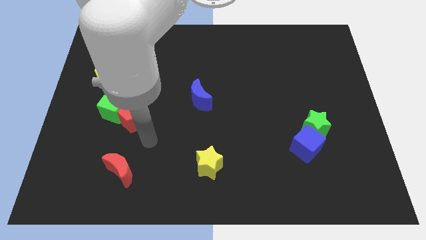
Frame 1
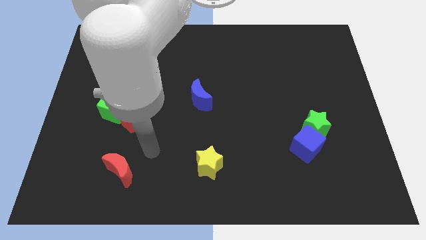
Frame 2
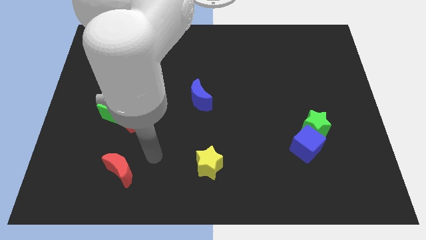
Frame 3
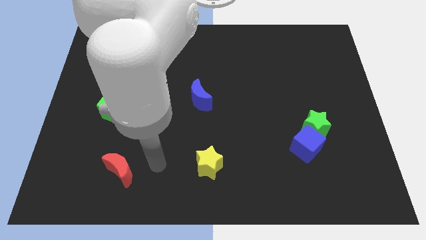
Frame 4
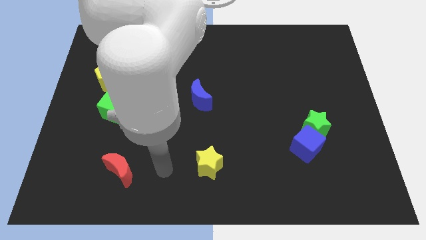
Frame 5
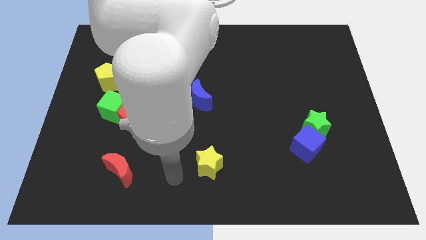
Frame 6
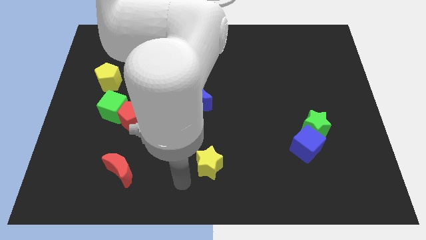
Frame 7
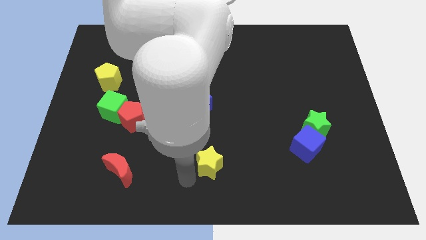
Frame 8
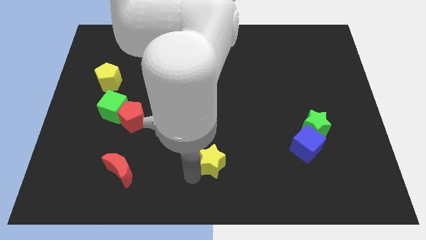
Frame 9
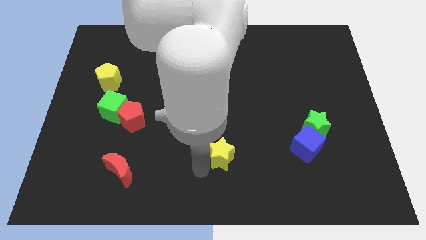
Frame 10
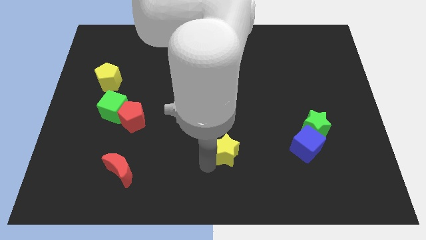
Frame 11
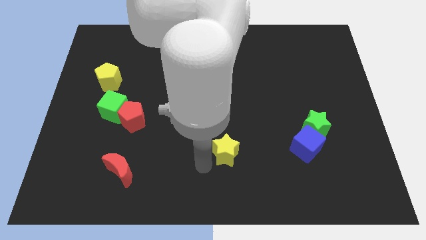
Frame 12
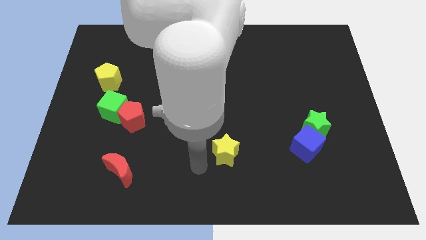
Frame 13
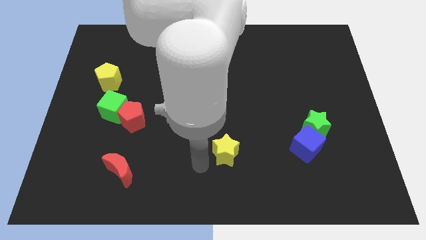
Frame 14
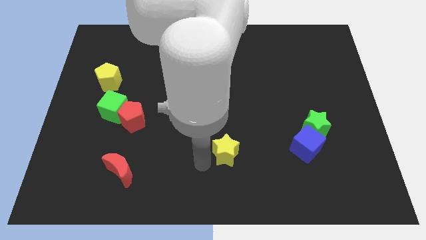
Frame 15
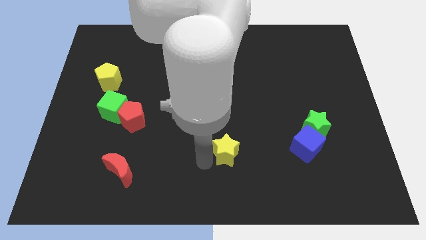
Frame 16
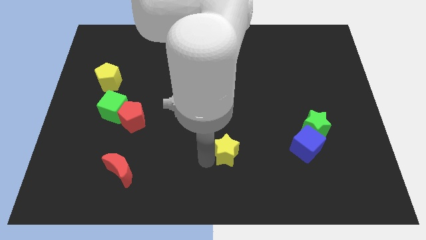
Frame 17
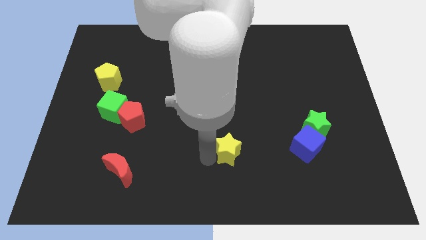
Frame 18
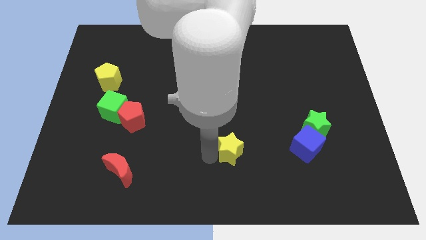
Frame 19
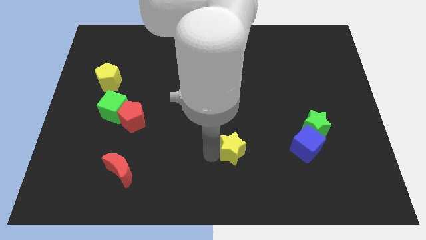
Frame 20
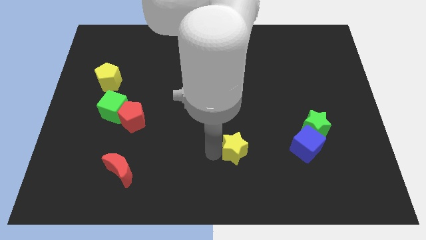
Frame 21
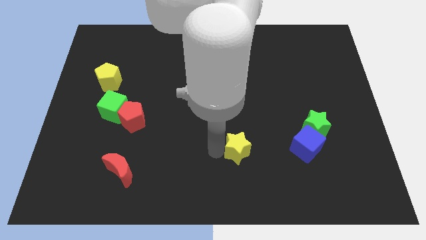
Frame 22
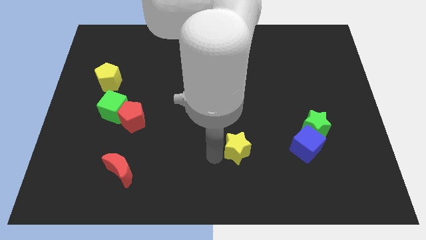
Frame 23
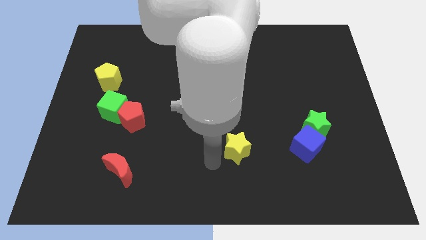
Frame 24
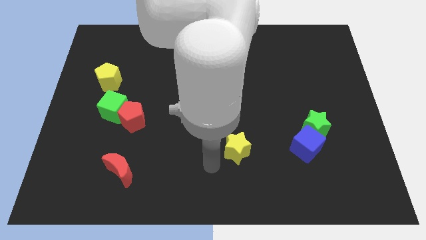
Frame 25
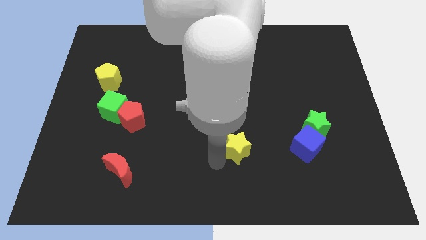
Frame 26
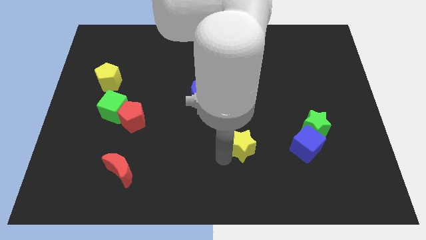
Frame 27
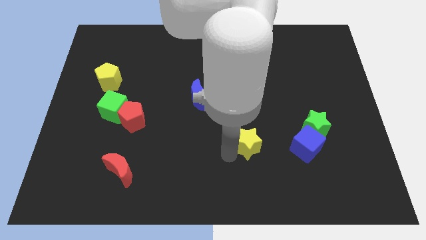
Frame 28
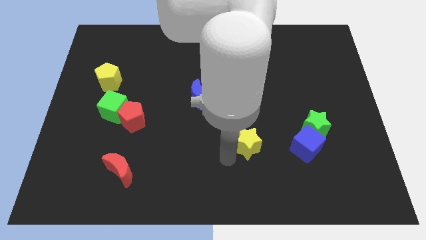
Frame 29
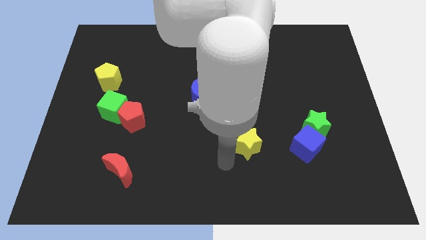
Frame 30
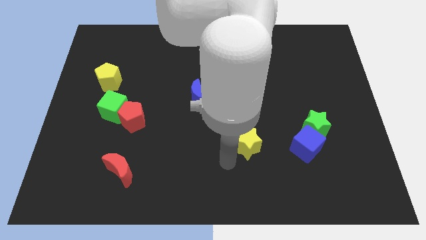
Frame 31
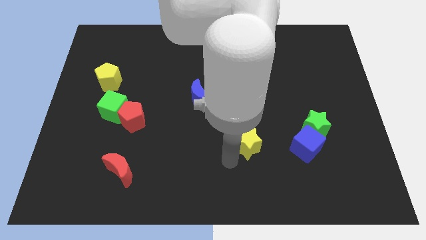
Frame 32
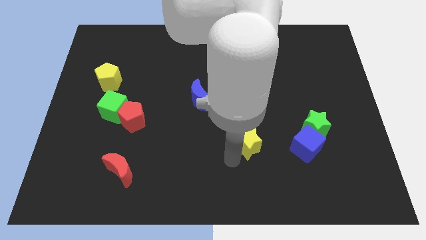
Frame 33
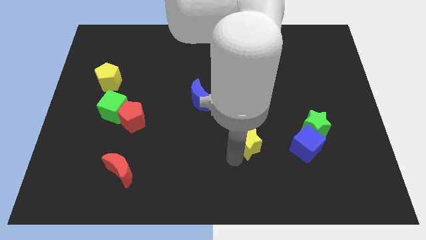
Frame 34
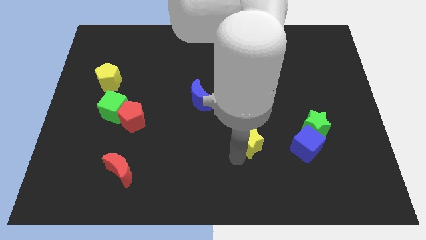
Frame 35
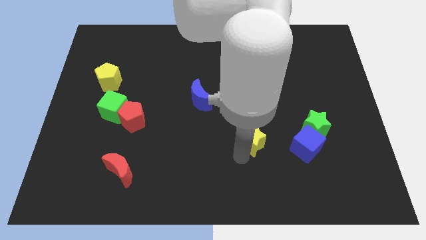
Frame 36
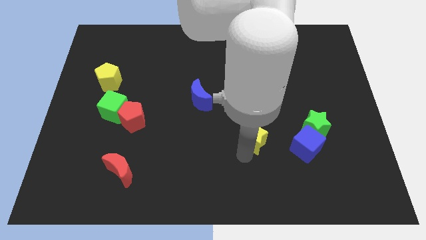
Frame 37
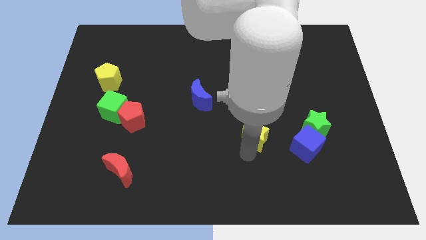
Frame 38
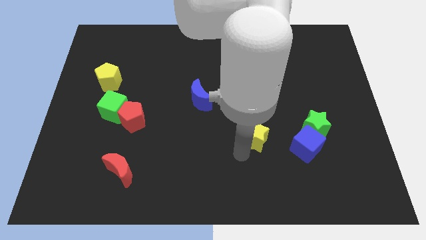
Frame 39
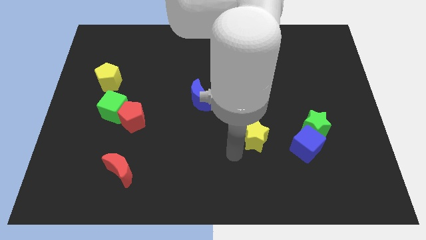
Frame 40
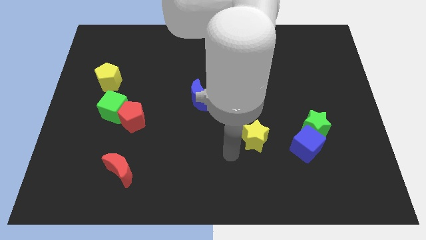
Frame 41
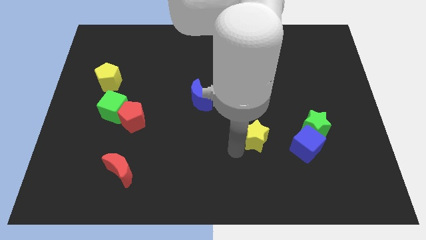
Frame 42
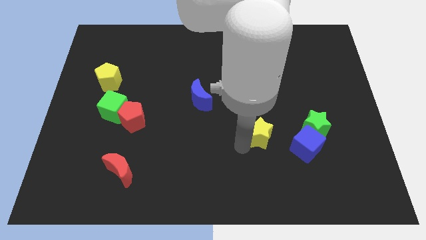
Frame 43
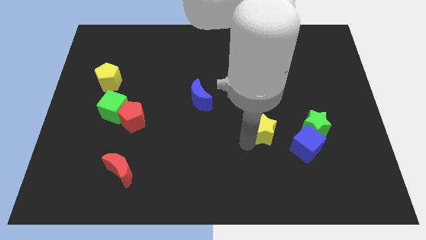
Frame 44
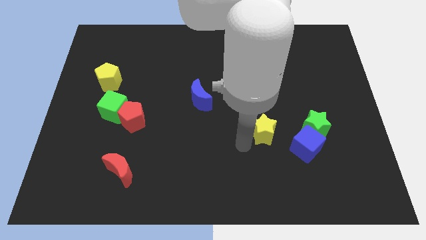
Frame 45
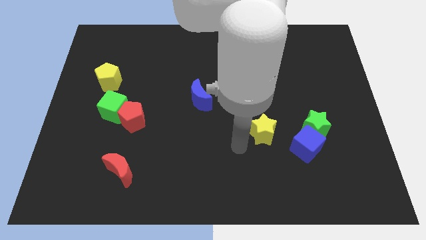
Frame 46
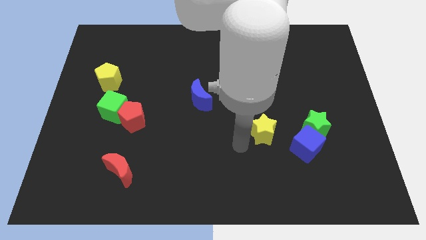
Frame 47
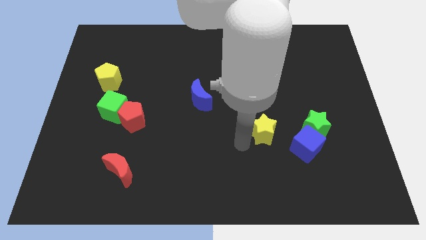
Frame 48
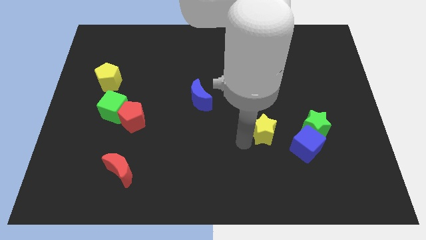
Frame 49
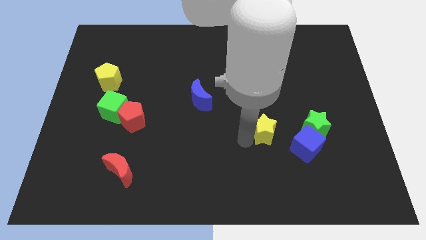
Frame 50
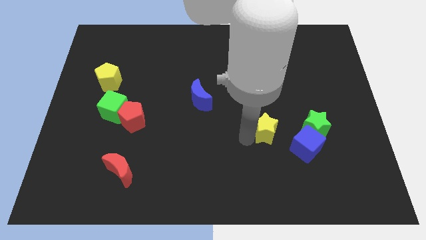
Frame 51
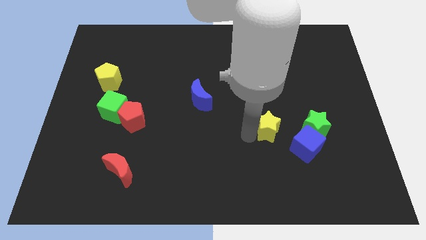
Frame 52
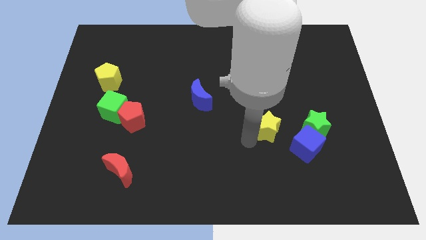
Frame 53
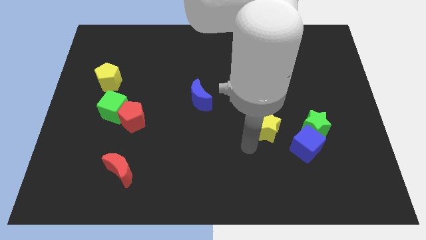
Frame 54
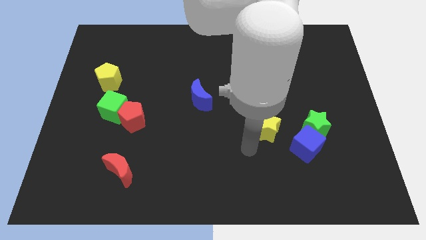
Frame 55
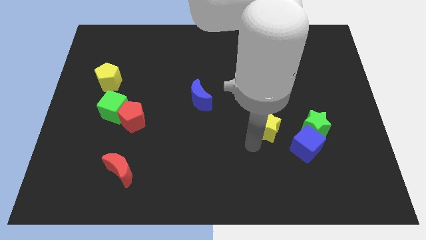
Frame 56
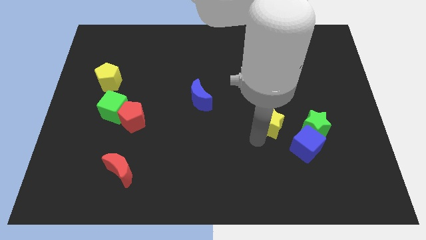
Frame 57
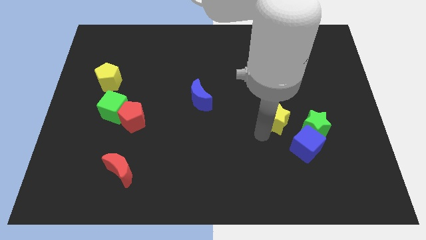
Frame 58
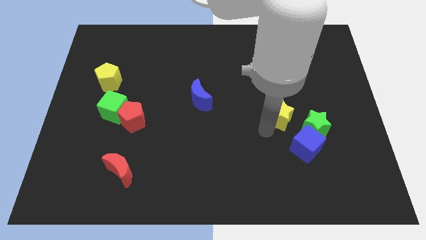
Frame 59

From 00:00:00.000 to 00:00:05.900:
move the yellow star up and right diagonally

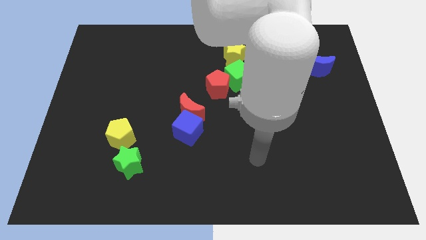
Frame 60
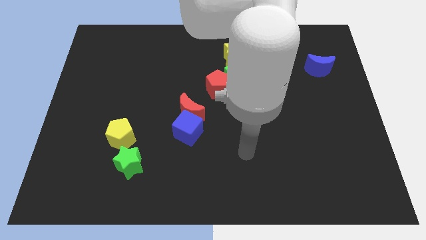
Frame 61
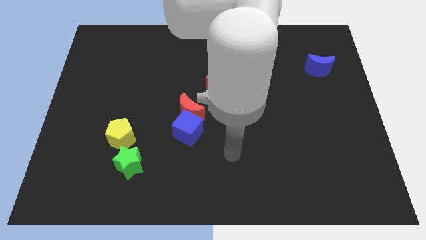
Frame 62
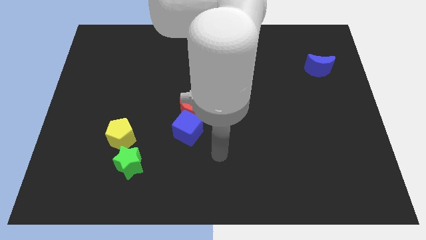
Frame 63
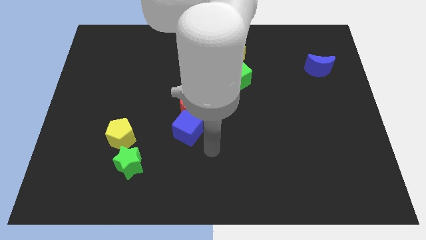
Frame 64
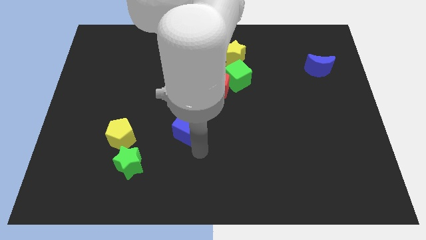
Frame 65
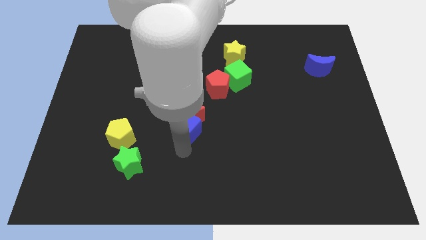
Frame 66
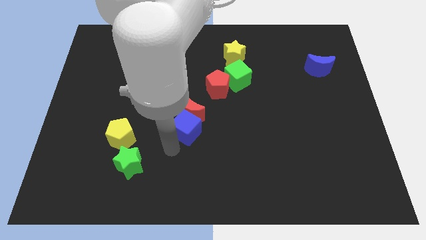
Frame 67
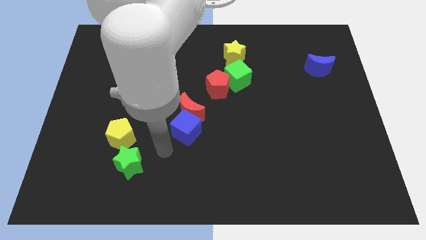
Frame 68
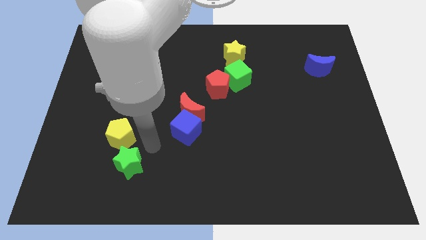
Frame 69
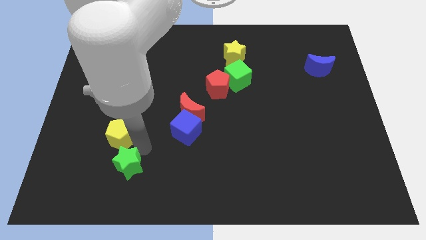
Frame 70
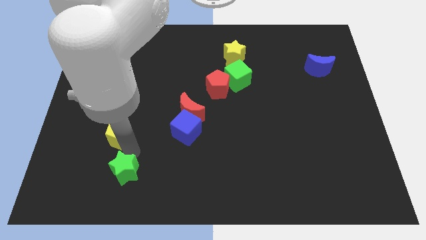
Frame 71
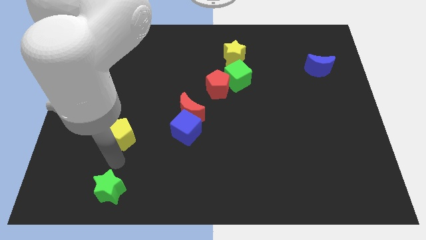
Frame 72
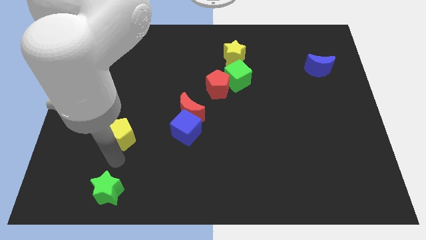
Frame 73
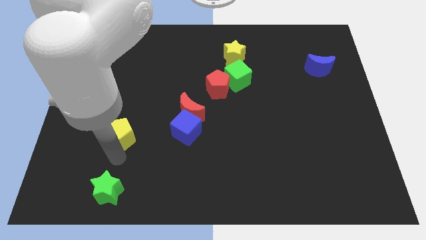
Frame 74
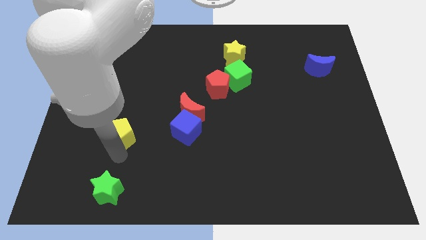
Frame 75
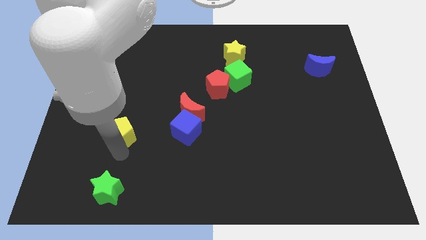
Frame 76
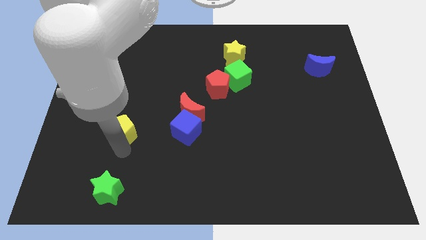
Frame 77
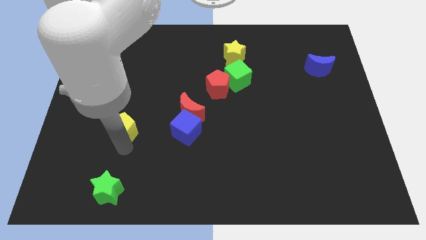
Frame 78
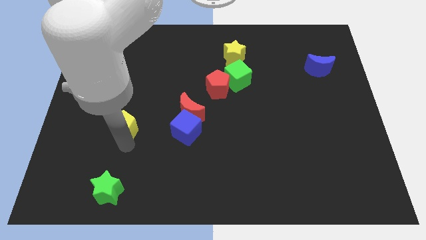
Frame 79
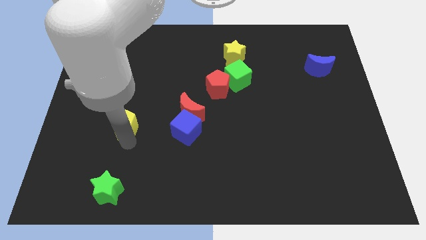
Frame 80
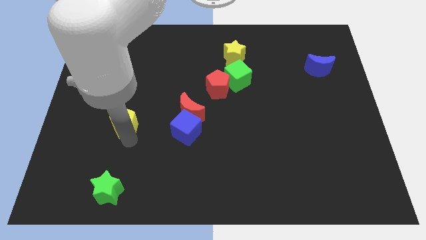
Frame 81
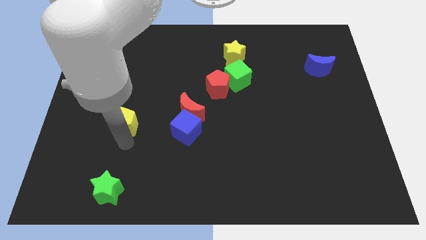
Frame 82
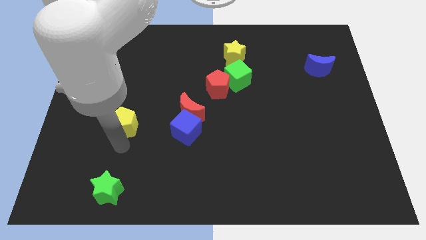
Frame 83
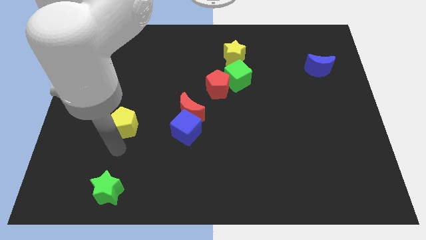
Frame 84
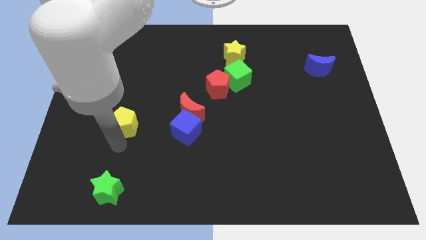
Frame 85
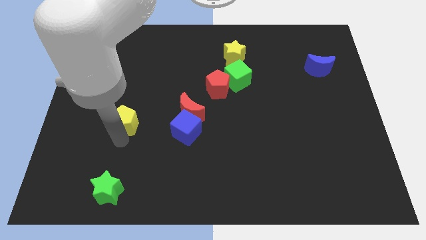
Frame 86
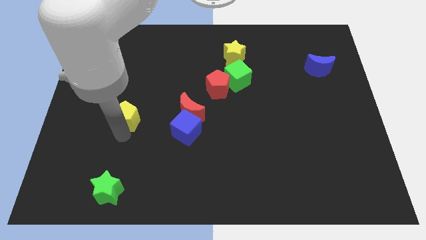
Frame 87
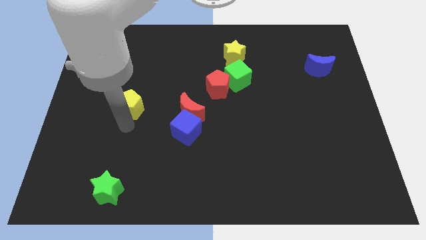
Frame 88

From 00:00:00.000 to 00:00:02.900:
move the yellow pentagon slightly up
